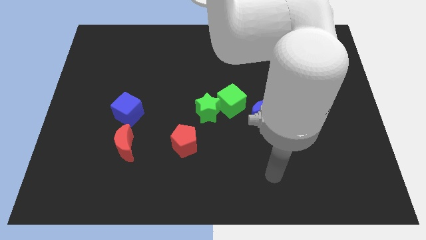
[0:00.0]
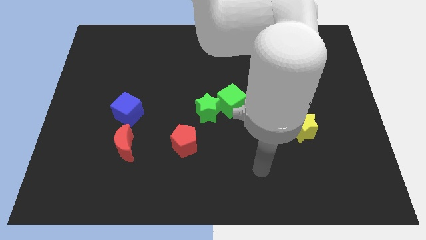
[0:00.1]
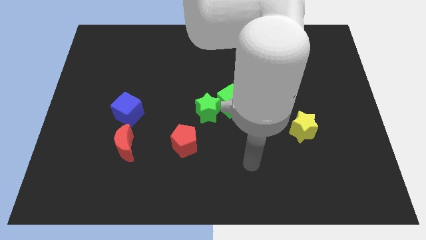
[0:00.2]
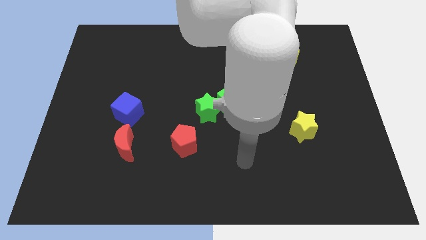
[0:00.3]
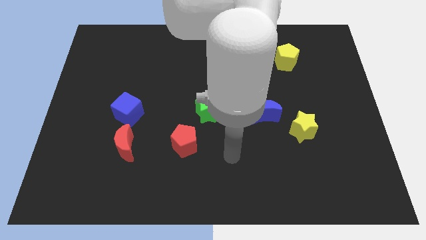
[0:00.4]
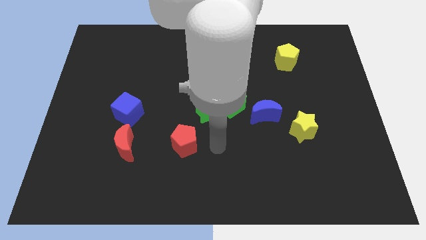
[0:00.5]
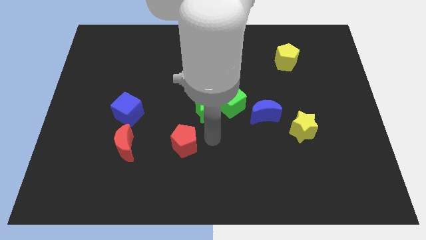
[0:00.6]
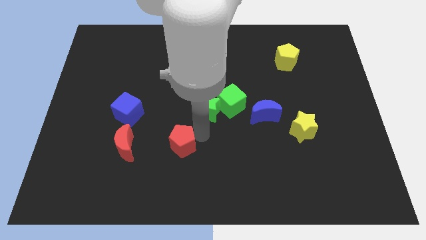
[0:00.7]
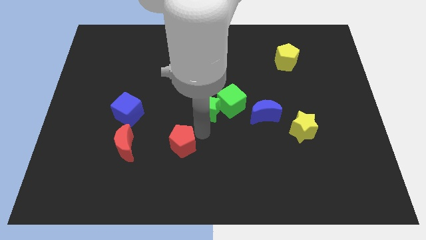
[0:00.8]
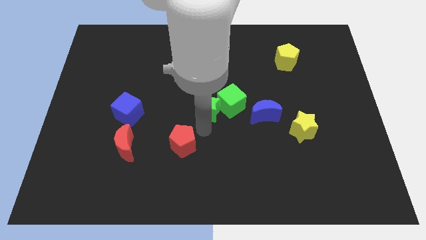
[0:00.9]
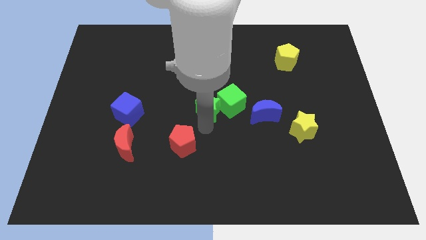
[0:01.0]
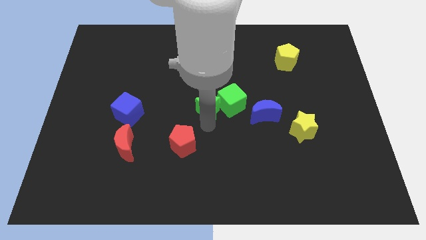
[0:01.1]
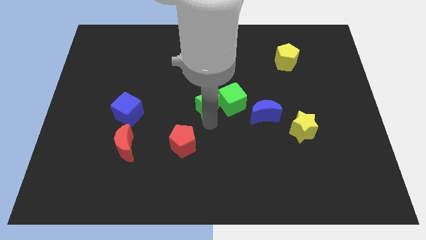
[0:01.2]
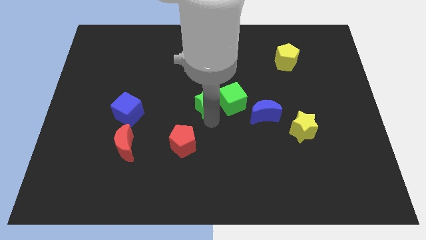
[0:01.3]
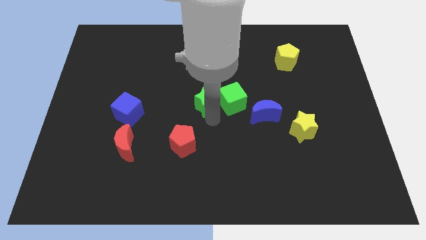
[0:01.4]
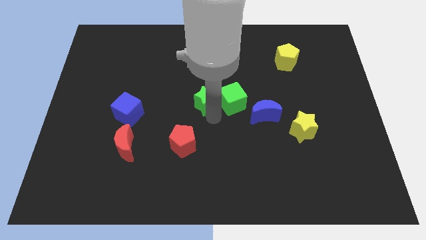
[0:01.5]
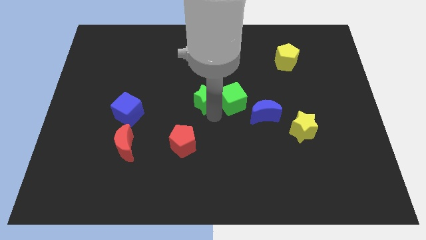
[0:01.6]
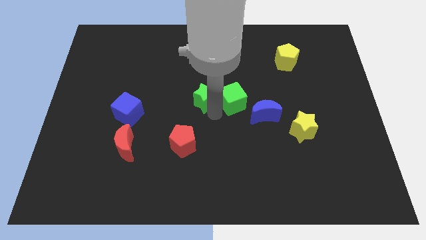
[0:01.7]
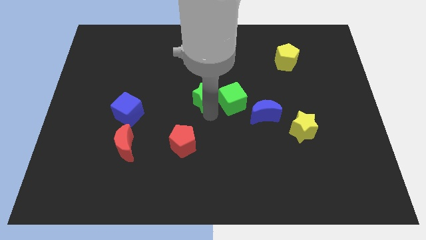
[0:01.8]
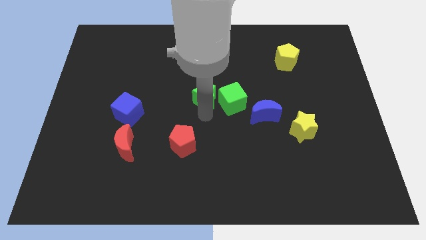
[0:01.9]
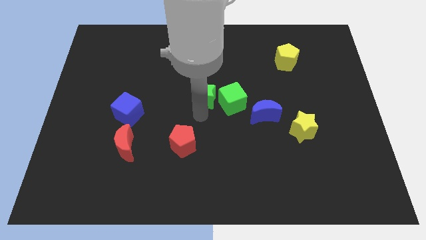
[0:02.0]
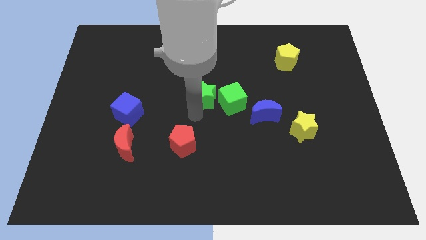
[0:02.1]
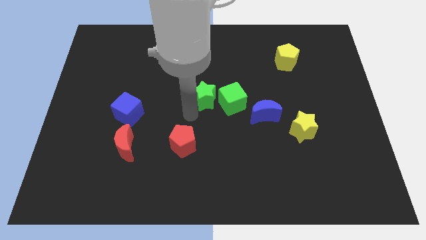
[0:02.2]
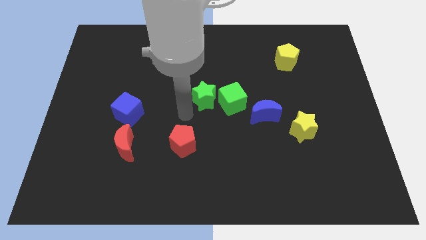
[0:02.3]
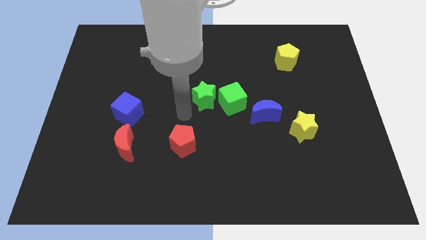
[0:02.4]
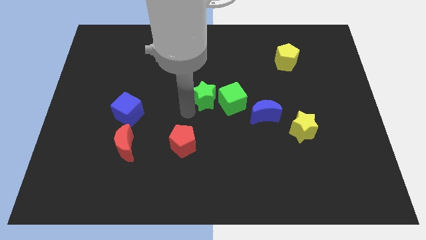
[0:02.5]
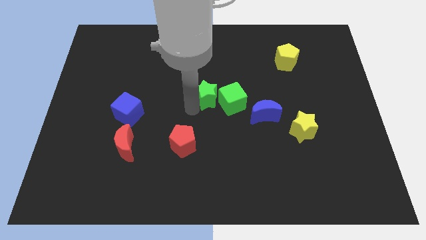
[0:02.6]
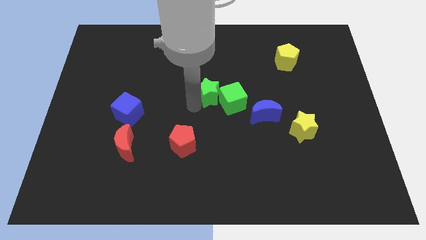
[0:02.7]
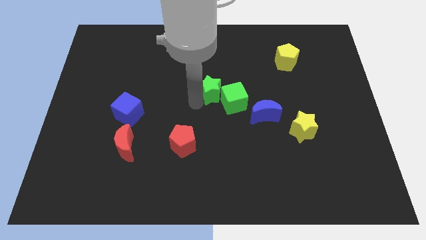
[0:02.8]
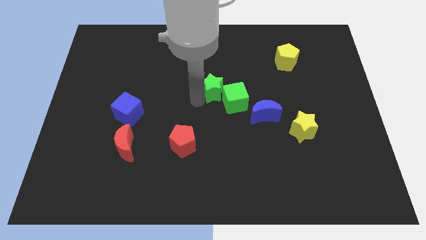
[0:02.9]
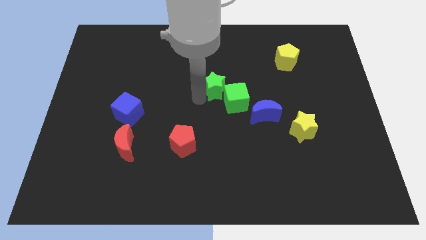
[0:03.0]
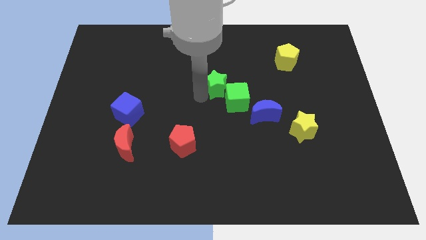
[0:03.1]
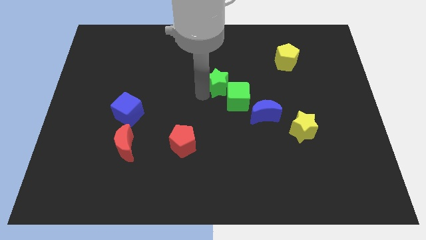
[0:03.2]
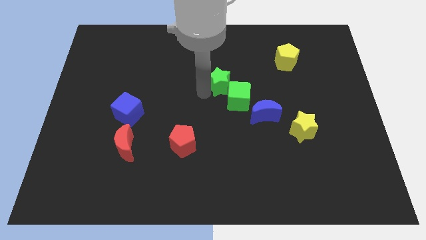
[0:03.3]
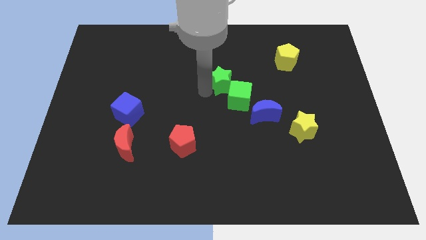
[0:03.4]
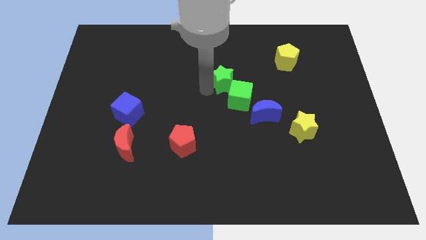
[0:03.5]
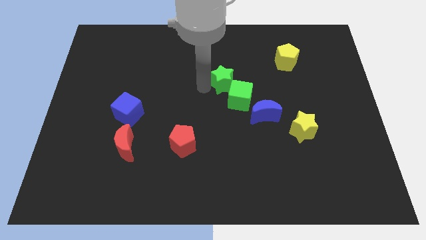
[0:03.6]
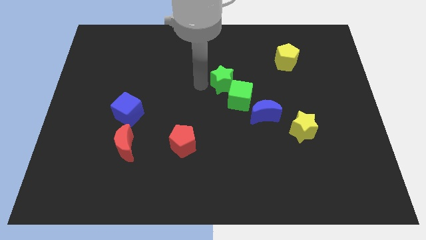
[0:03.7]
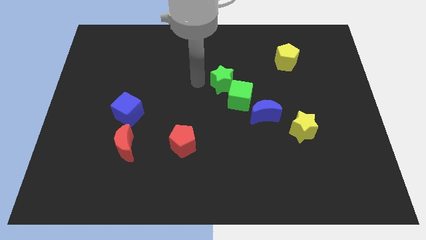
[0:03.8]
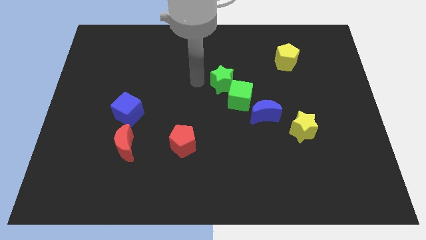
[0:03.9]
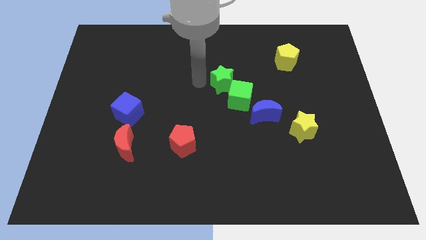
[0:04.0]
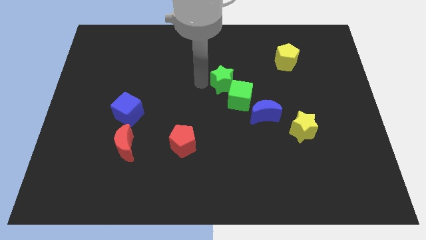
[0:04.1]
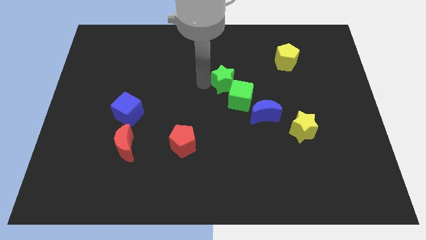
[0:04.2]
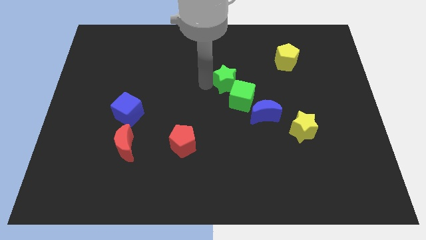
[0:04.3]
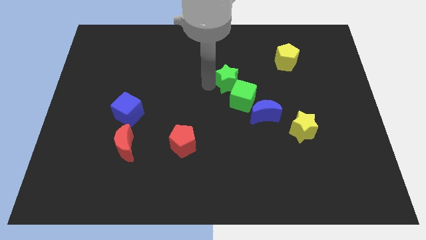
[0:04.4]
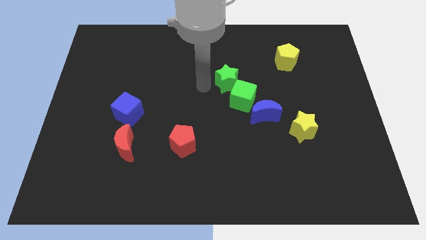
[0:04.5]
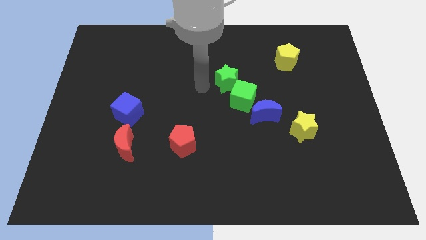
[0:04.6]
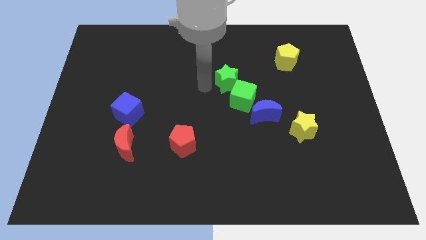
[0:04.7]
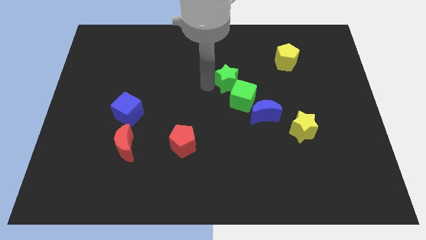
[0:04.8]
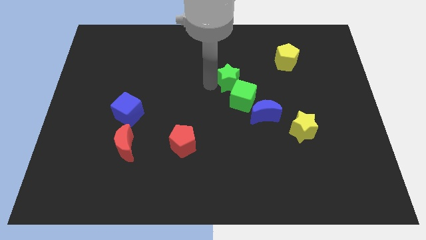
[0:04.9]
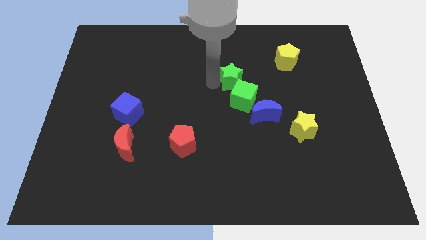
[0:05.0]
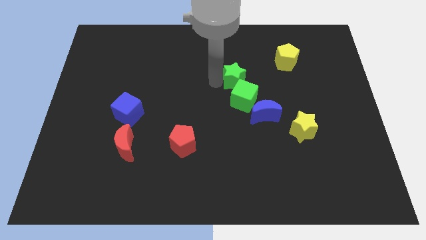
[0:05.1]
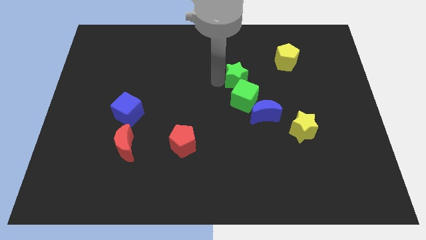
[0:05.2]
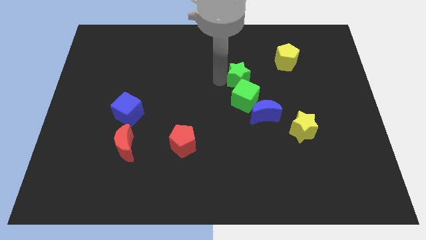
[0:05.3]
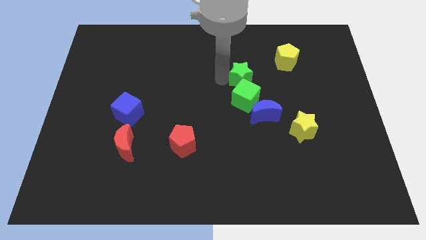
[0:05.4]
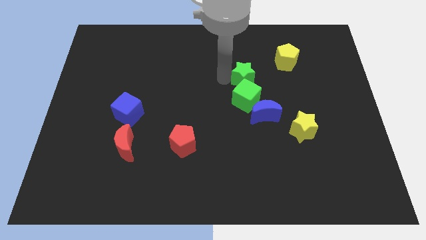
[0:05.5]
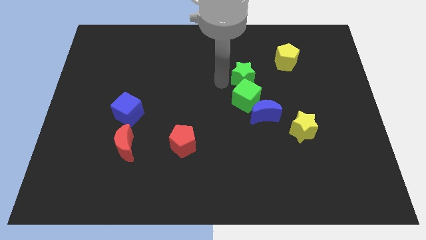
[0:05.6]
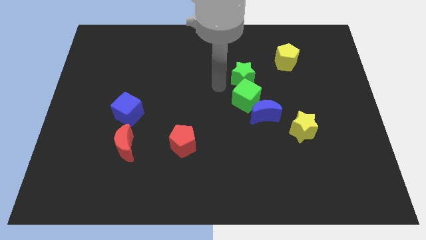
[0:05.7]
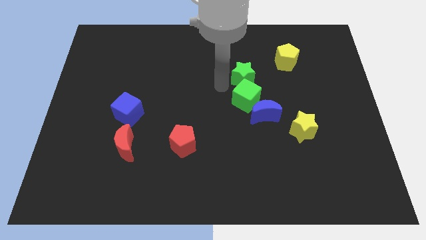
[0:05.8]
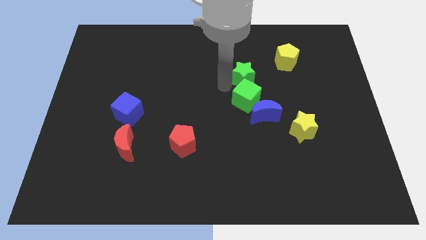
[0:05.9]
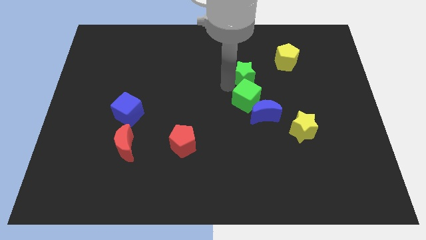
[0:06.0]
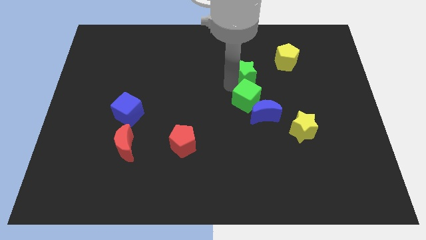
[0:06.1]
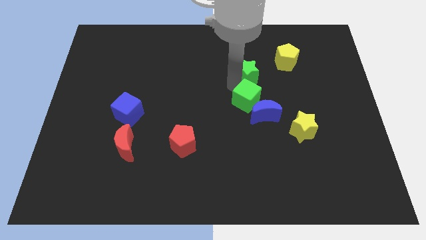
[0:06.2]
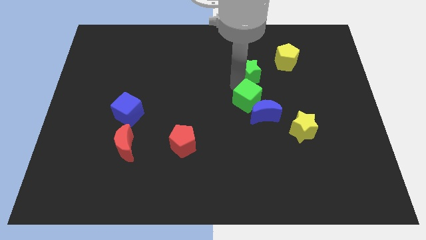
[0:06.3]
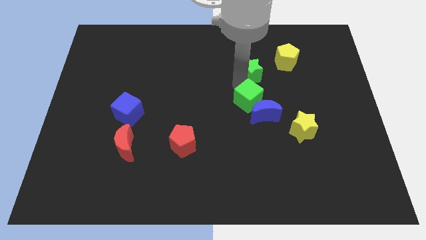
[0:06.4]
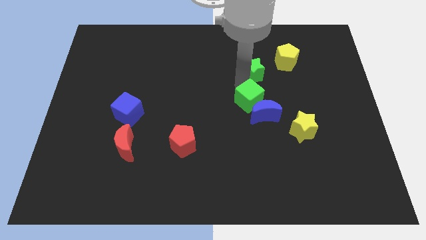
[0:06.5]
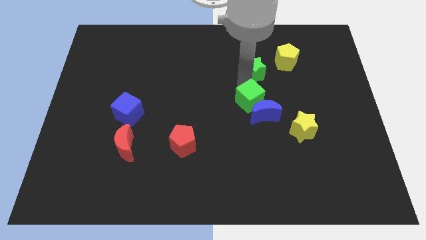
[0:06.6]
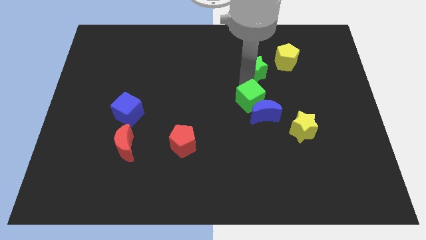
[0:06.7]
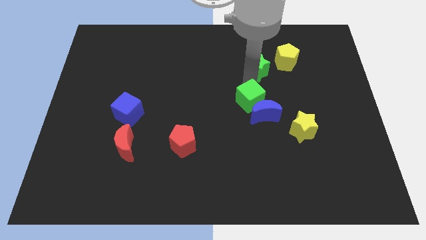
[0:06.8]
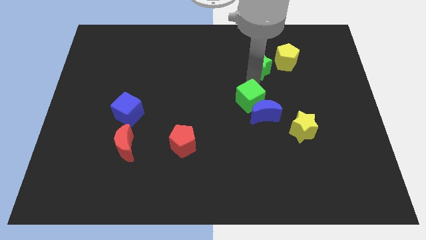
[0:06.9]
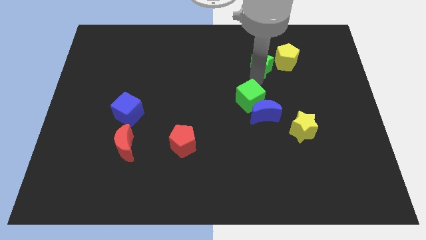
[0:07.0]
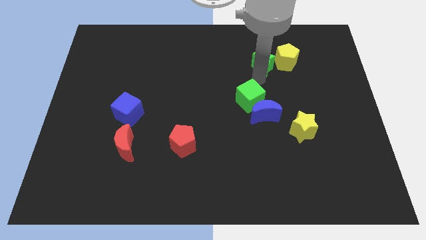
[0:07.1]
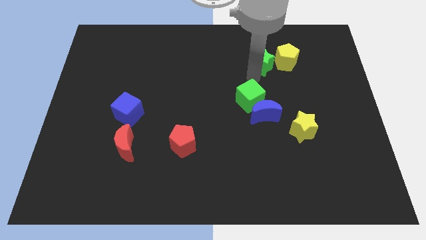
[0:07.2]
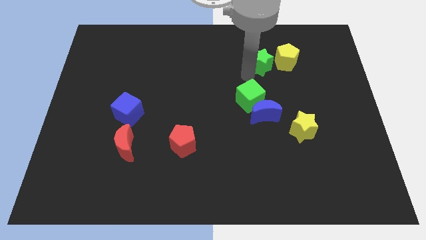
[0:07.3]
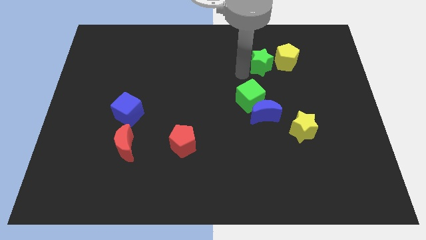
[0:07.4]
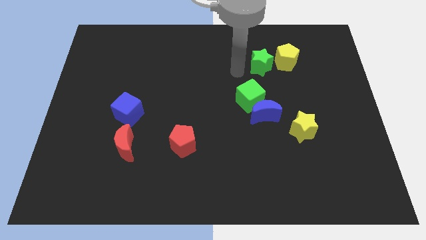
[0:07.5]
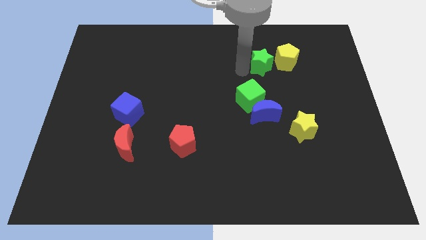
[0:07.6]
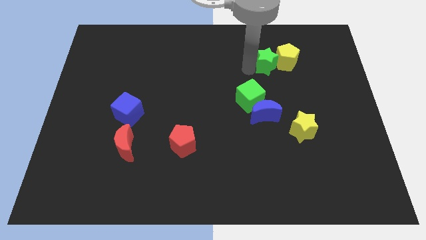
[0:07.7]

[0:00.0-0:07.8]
push the green star close to the yellow pentagon
